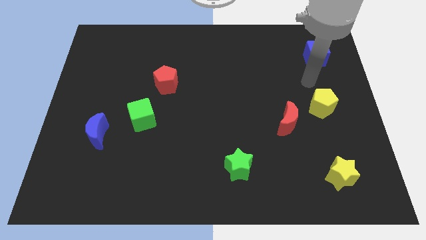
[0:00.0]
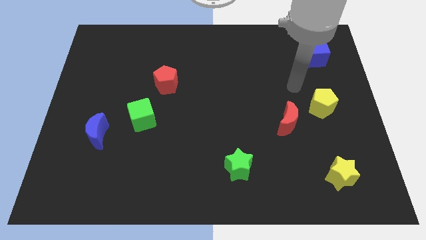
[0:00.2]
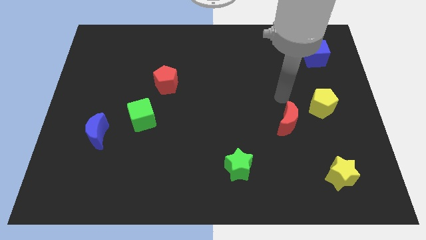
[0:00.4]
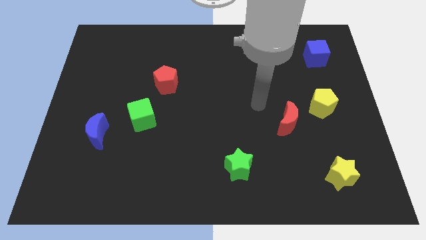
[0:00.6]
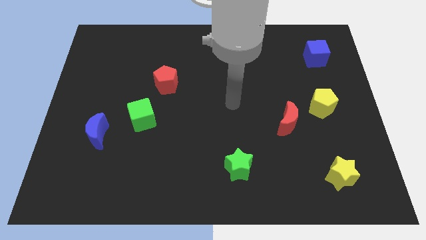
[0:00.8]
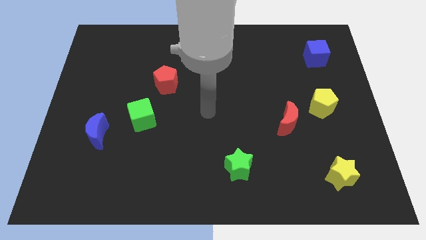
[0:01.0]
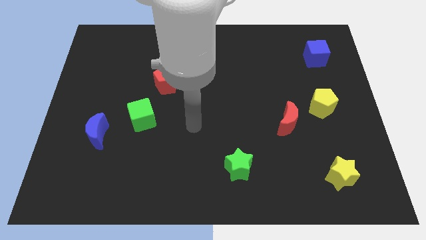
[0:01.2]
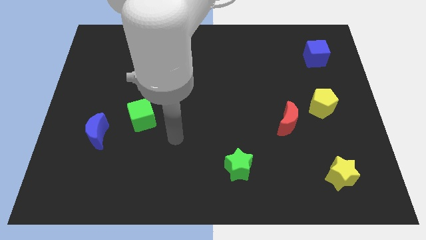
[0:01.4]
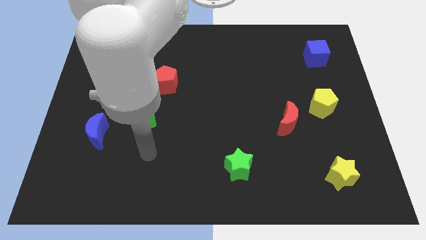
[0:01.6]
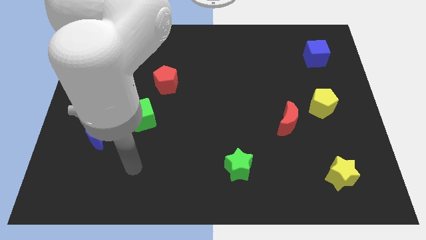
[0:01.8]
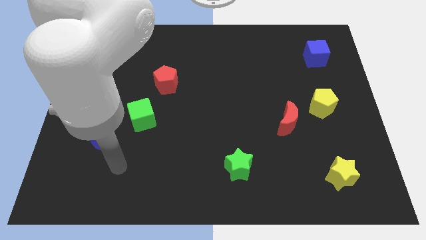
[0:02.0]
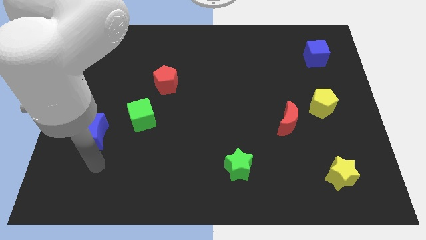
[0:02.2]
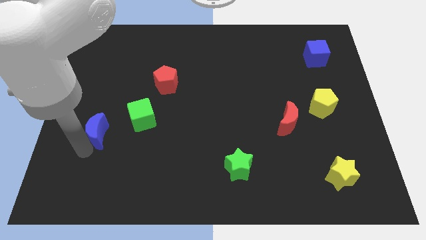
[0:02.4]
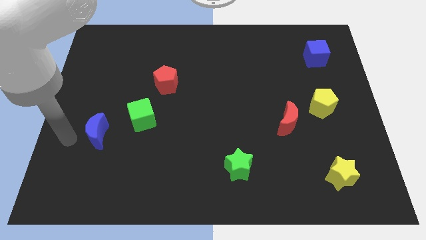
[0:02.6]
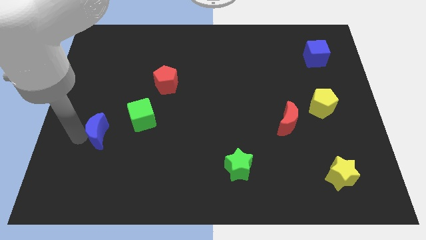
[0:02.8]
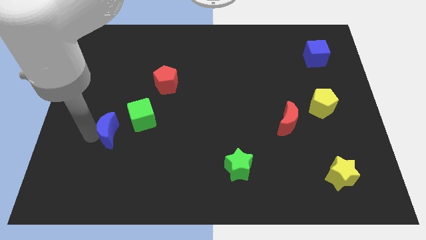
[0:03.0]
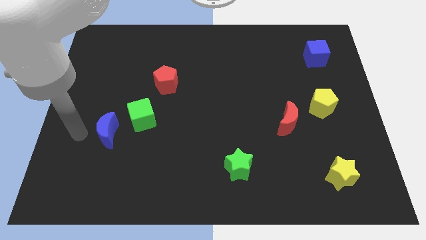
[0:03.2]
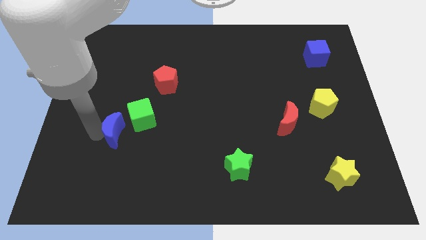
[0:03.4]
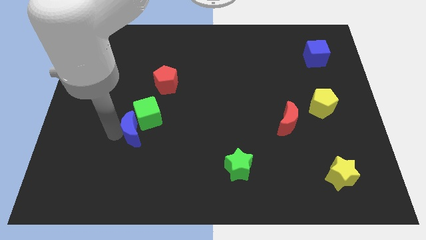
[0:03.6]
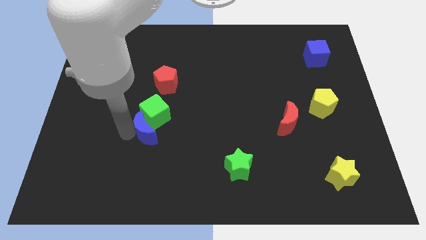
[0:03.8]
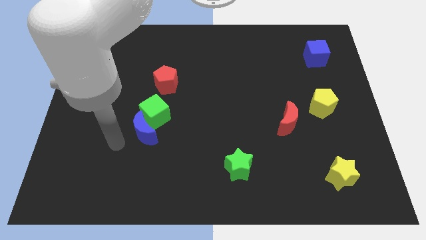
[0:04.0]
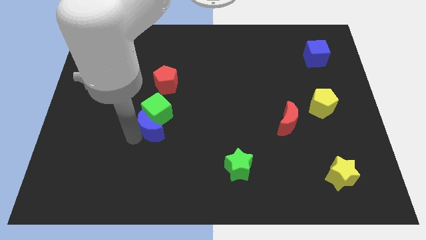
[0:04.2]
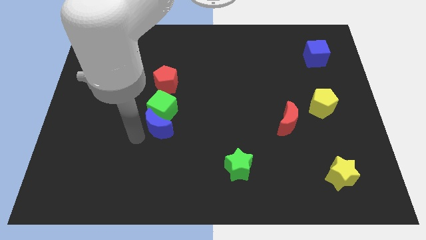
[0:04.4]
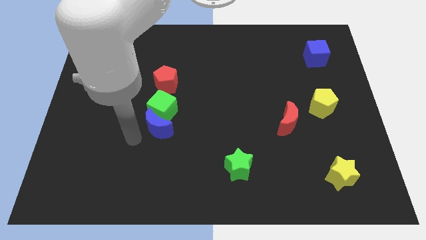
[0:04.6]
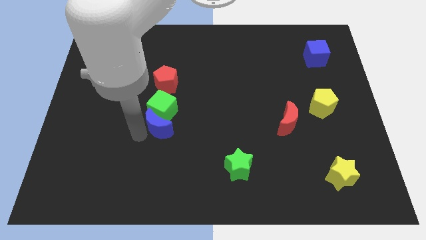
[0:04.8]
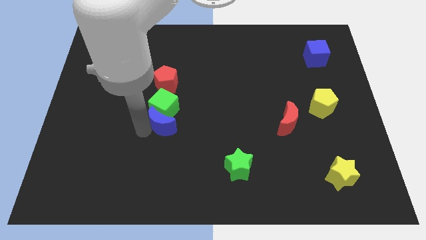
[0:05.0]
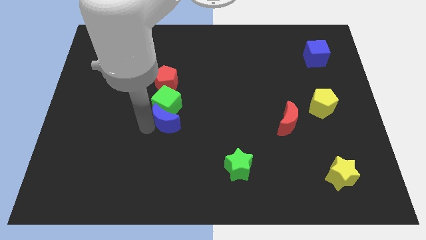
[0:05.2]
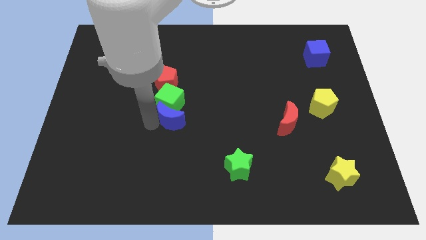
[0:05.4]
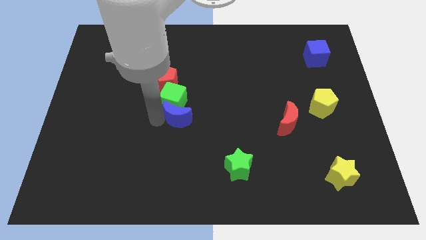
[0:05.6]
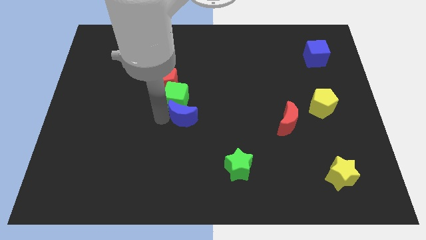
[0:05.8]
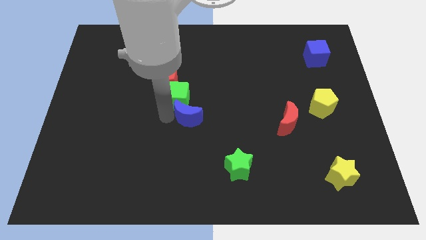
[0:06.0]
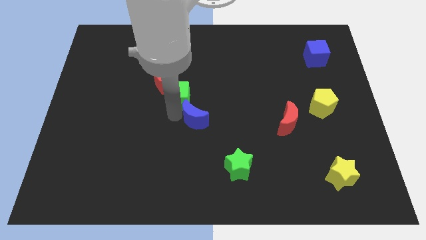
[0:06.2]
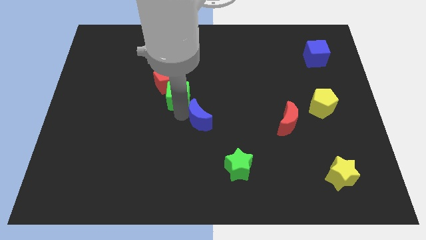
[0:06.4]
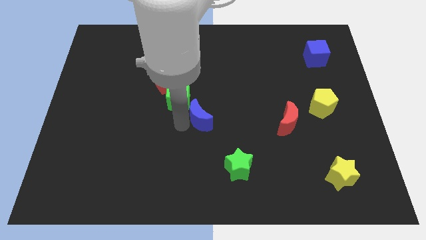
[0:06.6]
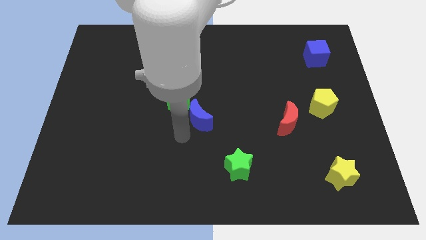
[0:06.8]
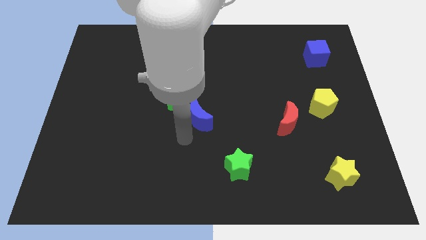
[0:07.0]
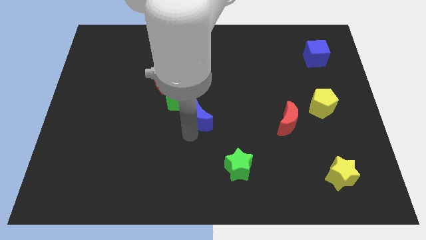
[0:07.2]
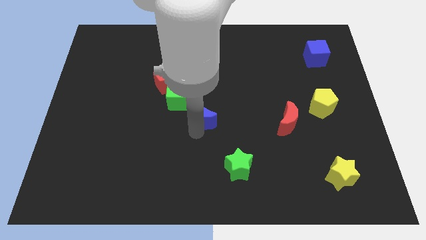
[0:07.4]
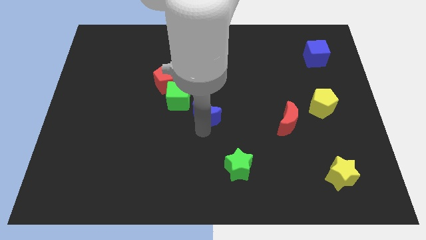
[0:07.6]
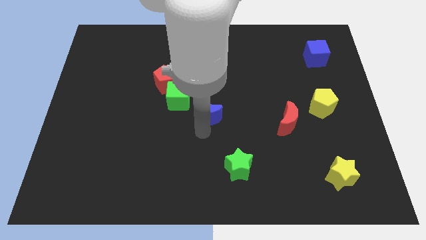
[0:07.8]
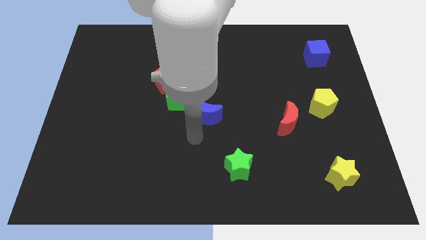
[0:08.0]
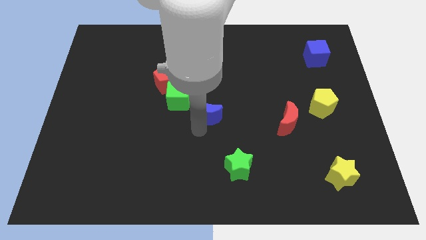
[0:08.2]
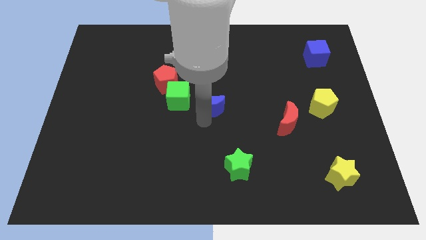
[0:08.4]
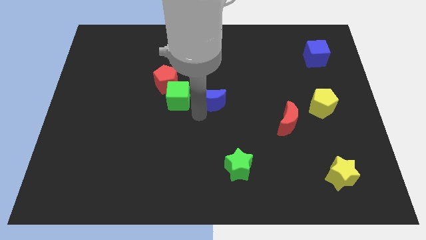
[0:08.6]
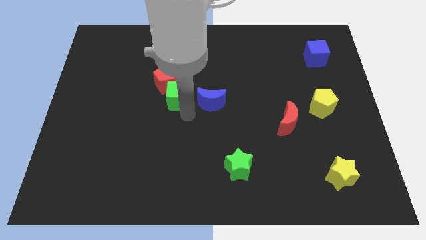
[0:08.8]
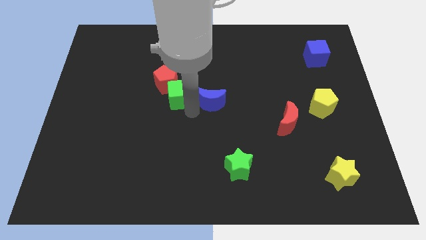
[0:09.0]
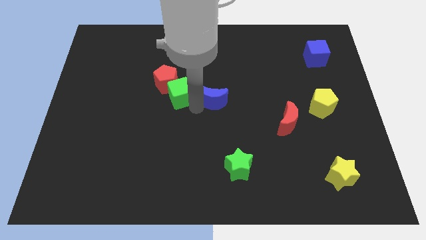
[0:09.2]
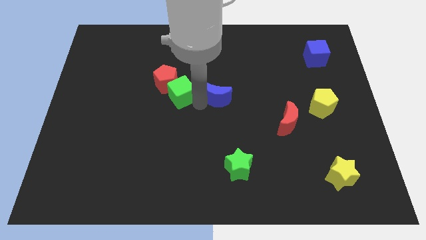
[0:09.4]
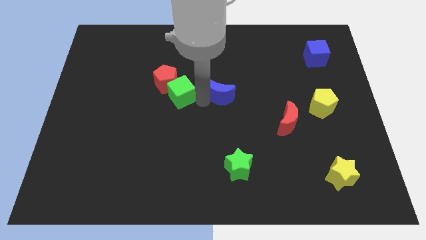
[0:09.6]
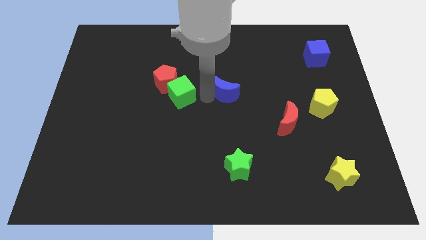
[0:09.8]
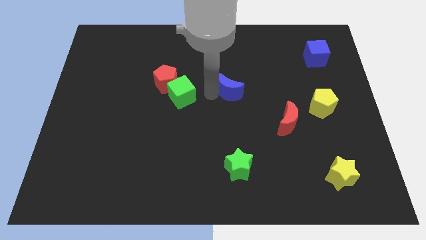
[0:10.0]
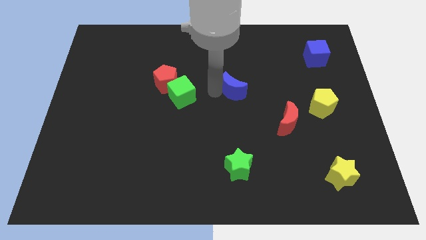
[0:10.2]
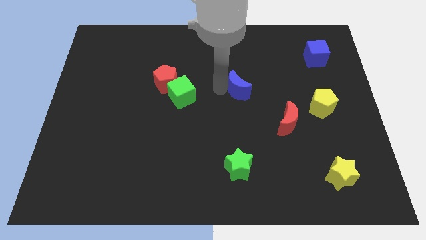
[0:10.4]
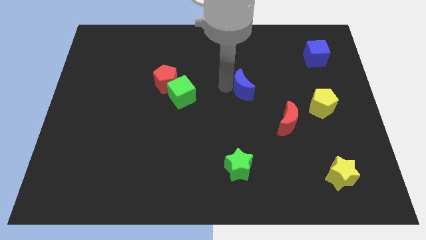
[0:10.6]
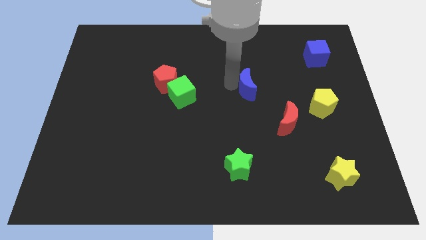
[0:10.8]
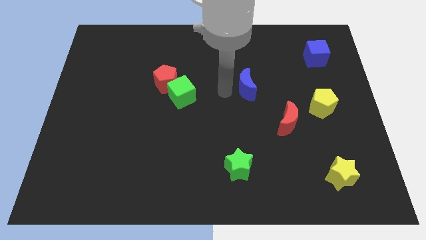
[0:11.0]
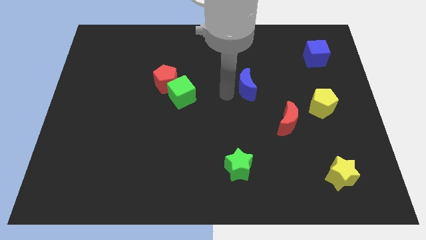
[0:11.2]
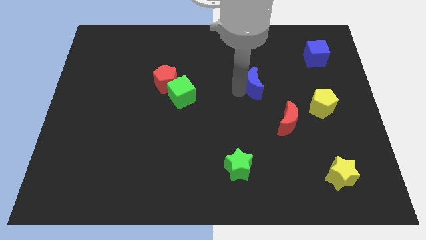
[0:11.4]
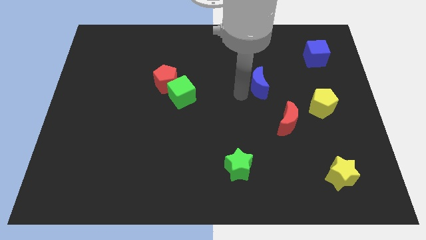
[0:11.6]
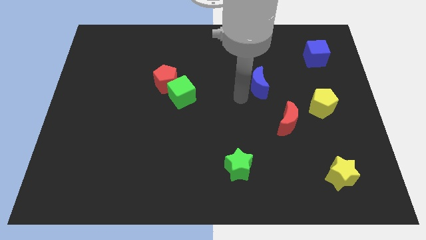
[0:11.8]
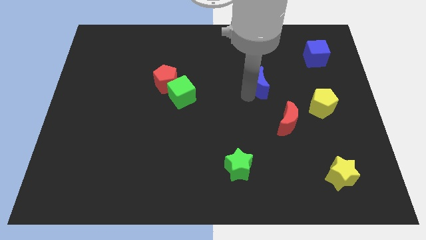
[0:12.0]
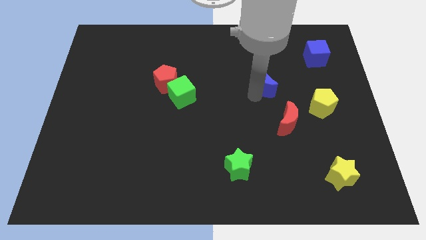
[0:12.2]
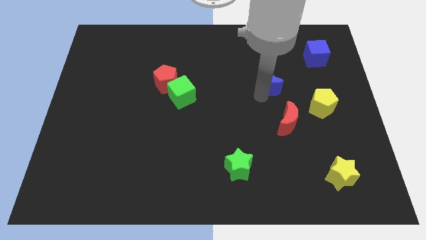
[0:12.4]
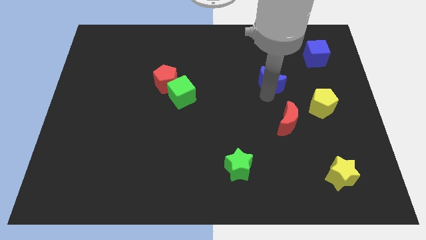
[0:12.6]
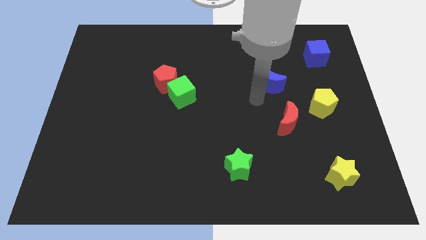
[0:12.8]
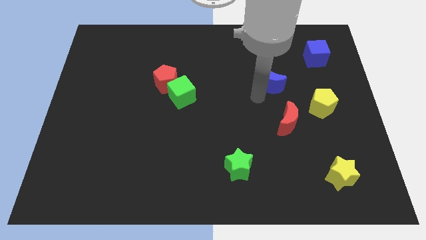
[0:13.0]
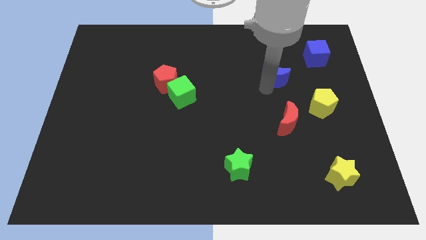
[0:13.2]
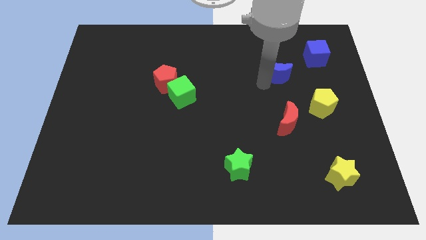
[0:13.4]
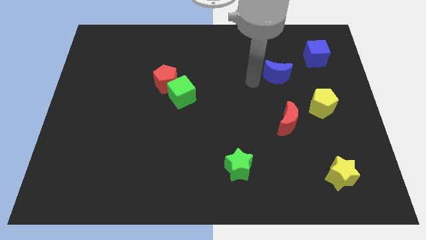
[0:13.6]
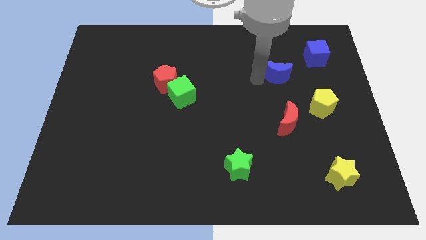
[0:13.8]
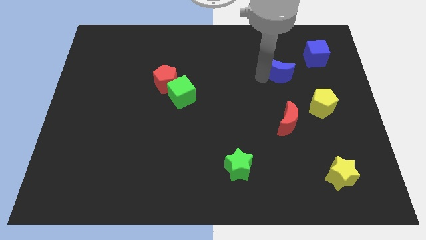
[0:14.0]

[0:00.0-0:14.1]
slide the blue moon to the bottom left side of the blue cube

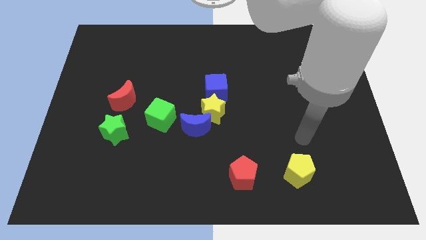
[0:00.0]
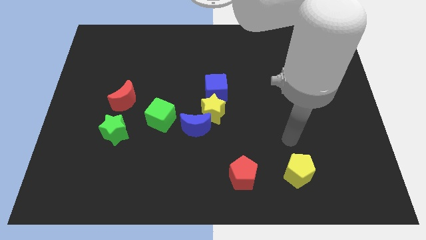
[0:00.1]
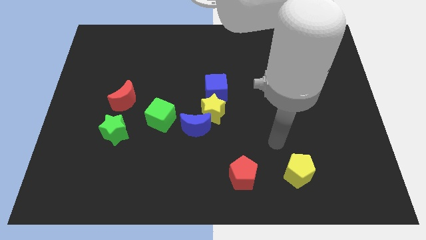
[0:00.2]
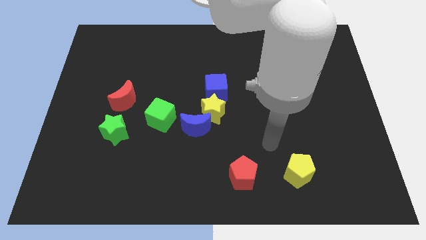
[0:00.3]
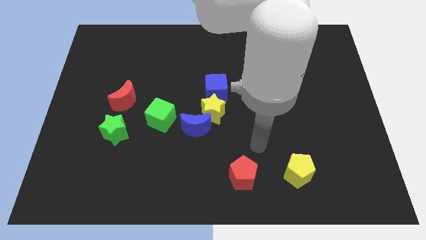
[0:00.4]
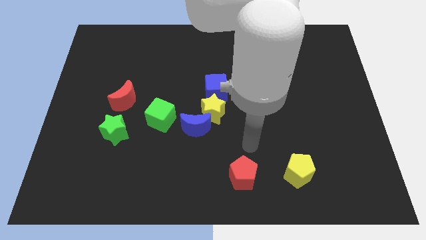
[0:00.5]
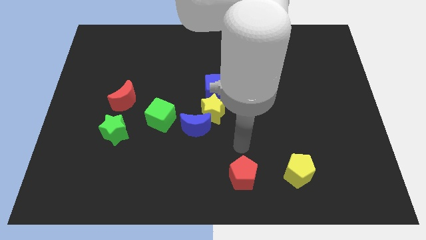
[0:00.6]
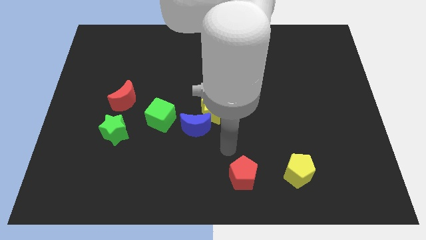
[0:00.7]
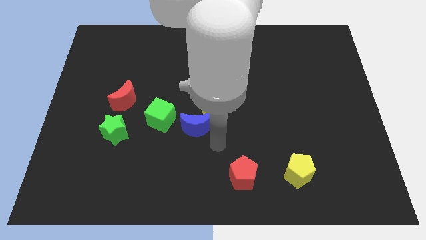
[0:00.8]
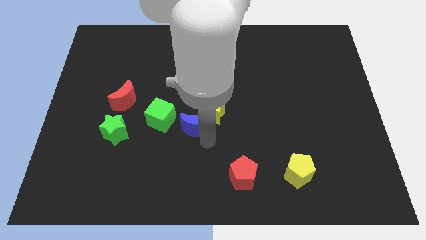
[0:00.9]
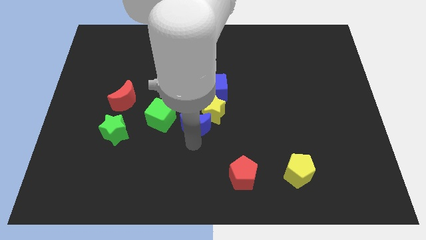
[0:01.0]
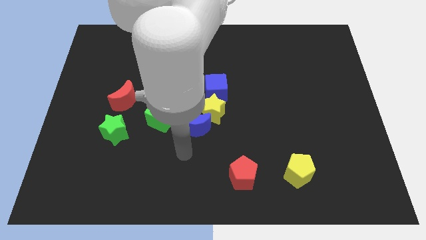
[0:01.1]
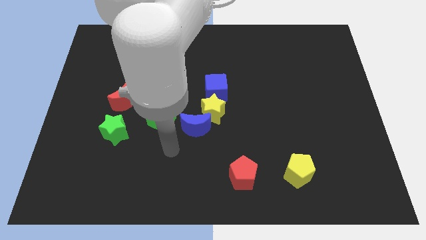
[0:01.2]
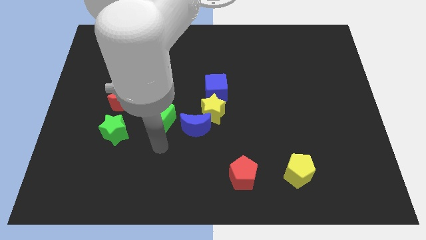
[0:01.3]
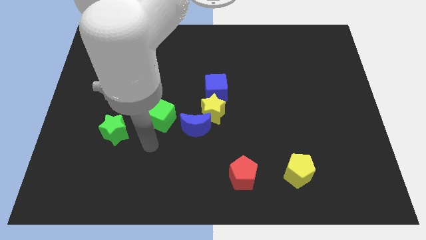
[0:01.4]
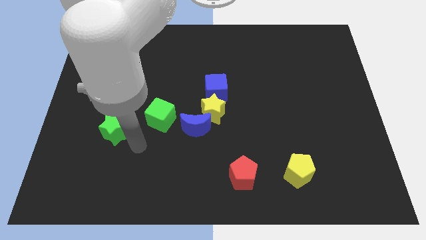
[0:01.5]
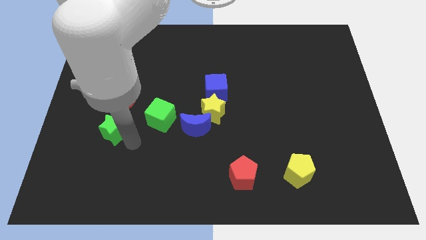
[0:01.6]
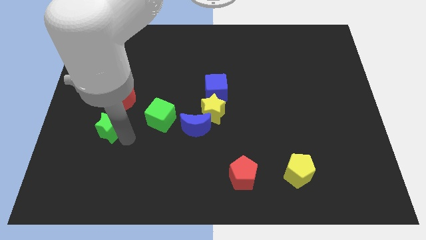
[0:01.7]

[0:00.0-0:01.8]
slide the green star to the bottom left of the red moon
